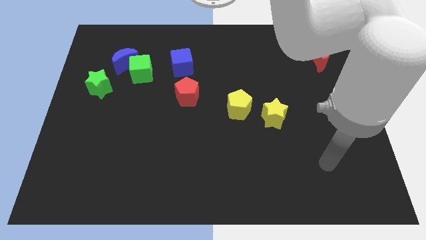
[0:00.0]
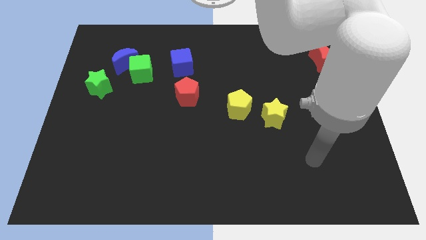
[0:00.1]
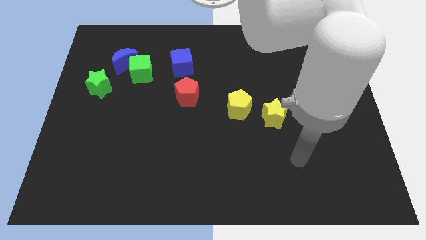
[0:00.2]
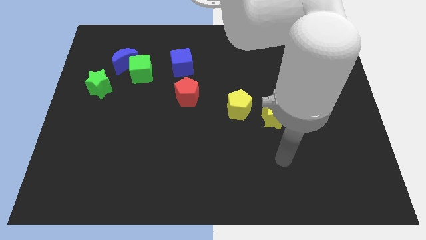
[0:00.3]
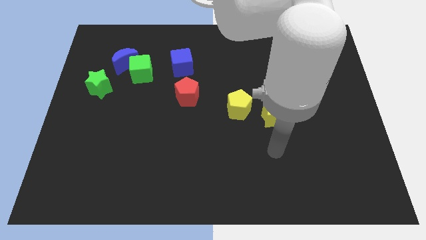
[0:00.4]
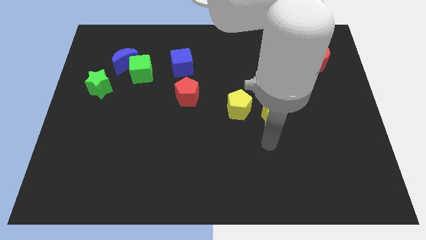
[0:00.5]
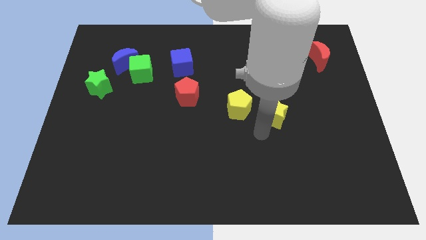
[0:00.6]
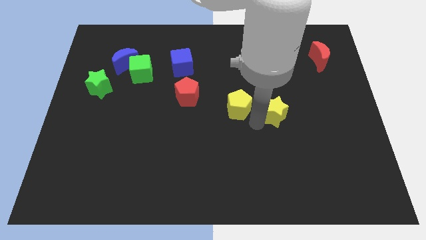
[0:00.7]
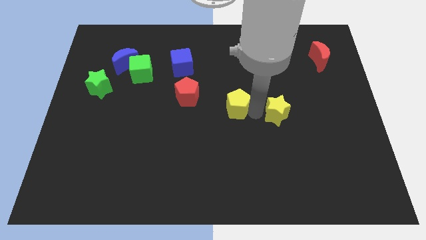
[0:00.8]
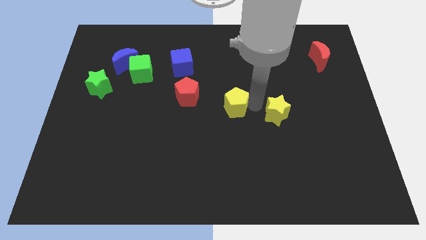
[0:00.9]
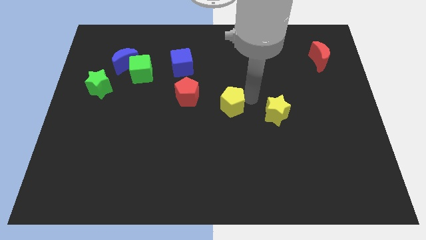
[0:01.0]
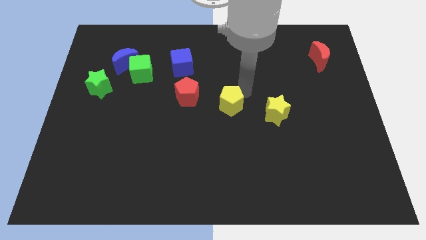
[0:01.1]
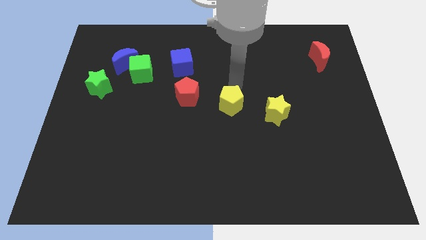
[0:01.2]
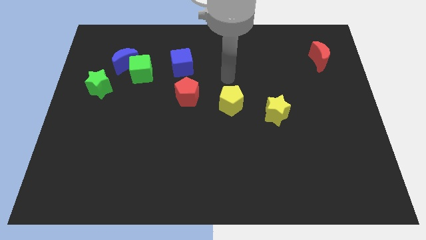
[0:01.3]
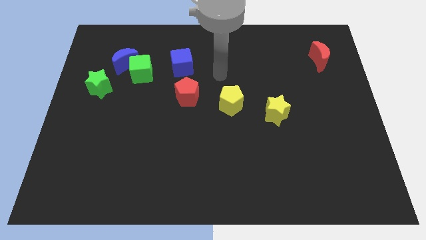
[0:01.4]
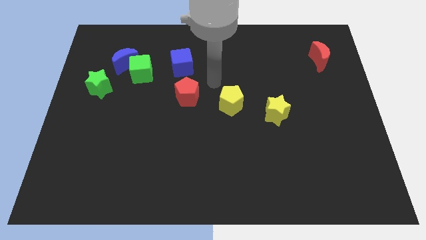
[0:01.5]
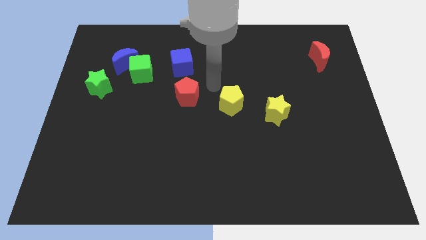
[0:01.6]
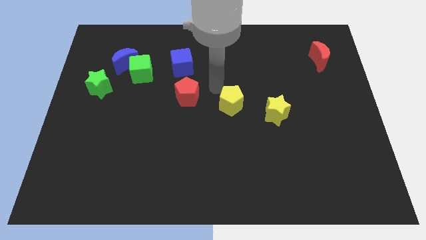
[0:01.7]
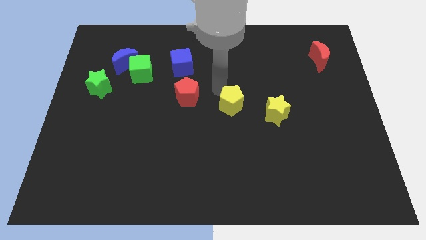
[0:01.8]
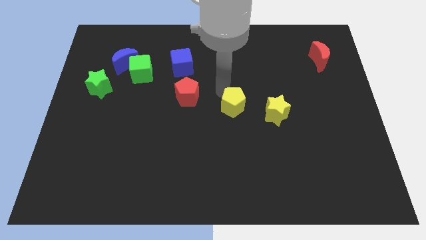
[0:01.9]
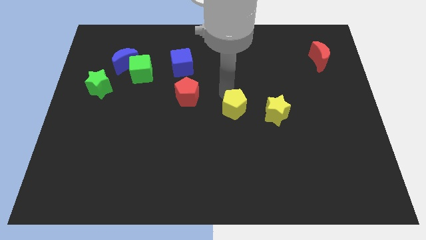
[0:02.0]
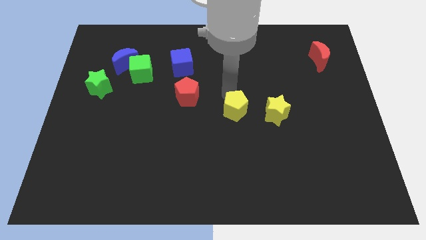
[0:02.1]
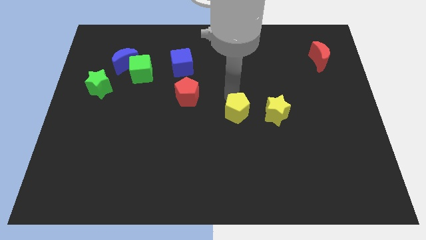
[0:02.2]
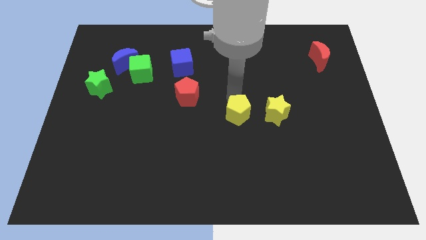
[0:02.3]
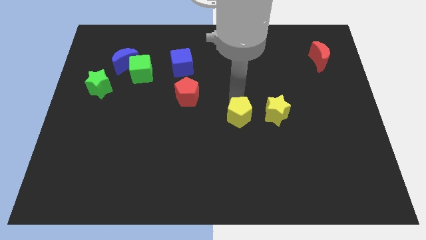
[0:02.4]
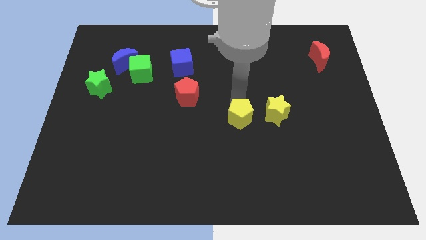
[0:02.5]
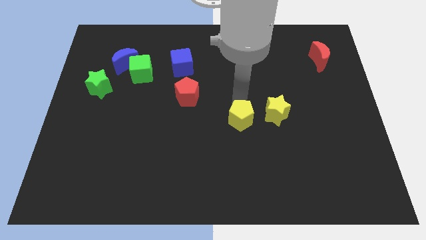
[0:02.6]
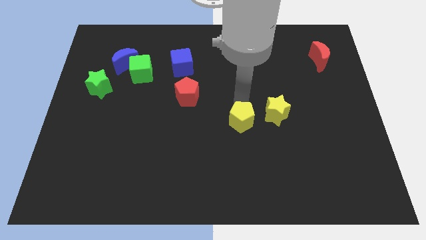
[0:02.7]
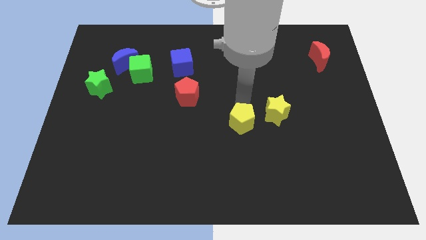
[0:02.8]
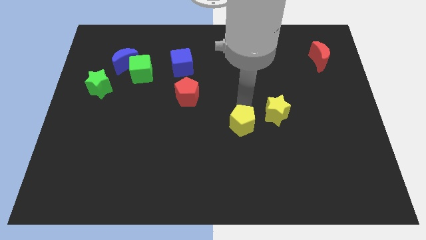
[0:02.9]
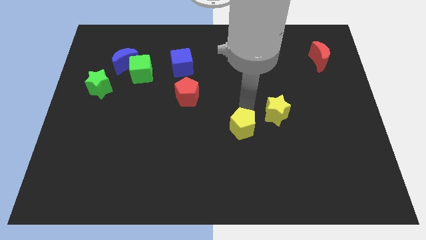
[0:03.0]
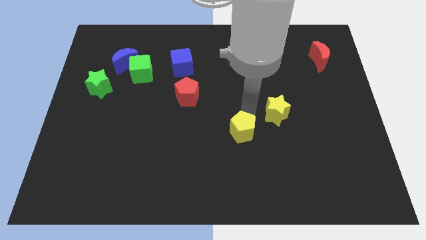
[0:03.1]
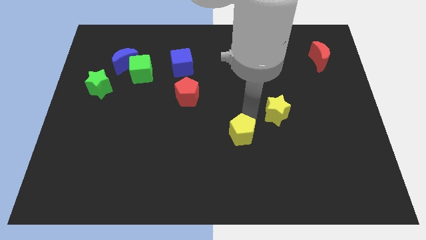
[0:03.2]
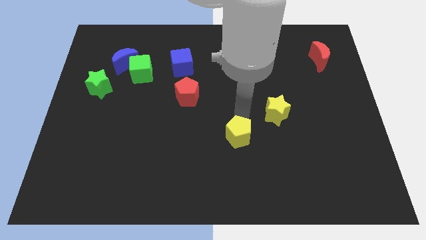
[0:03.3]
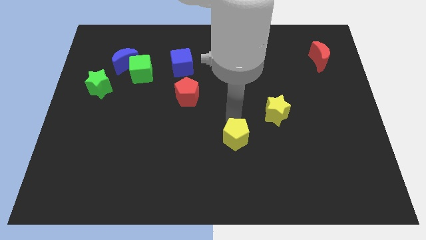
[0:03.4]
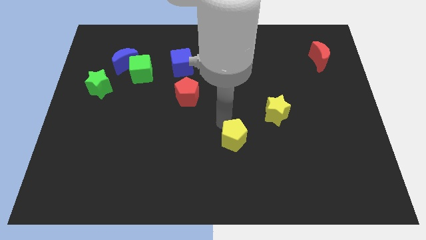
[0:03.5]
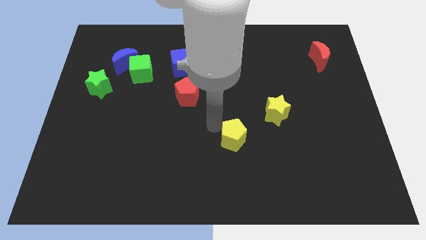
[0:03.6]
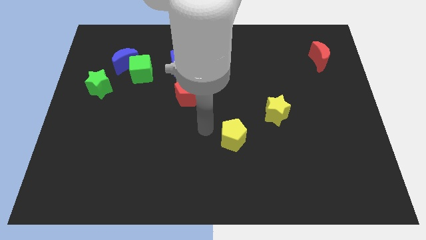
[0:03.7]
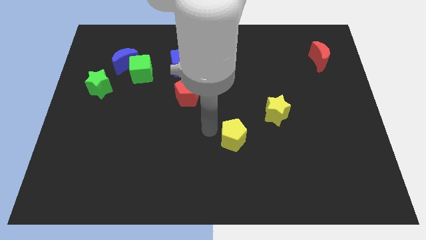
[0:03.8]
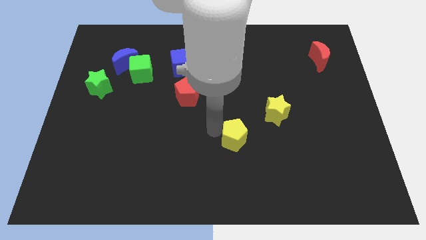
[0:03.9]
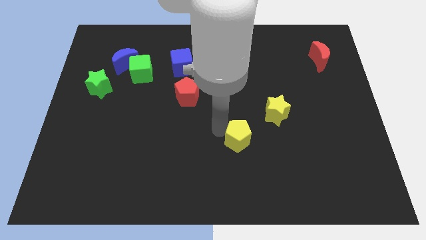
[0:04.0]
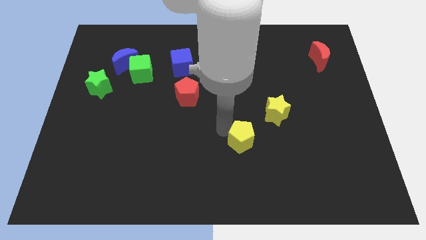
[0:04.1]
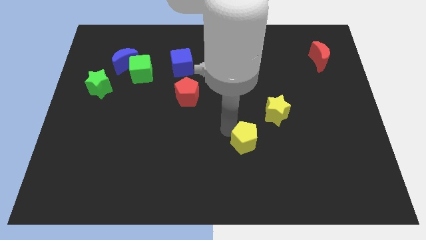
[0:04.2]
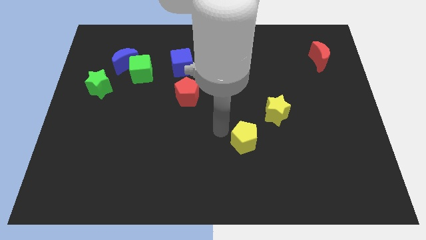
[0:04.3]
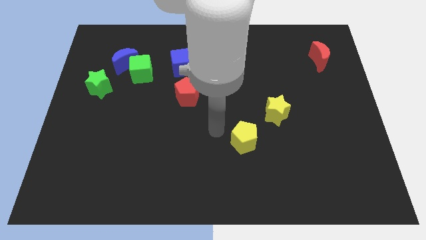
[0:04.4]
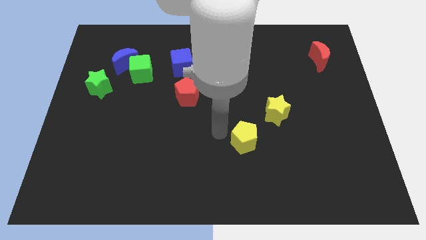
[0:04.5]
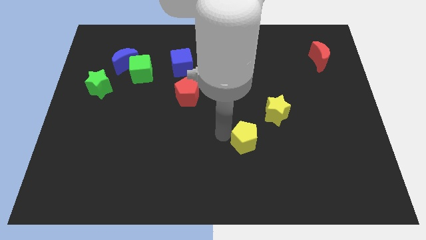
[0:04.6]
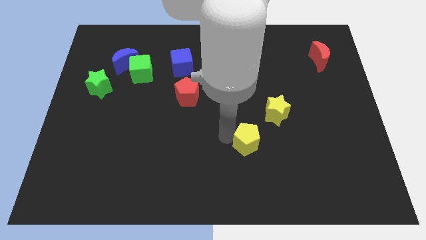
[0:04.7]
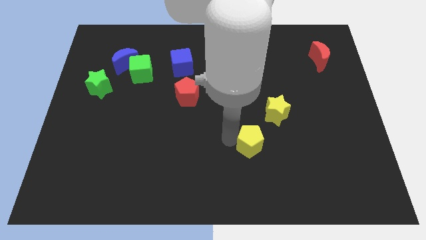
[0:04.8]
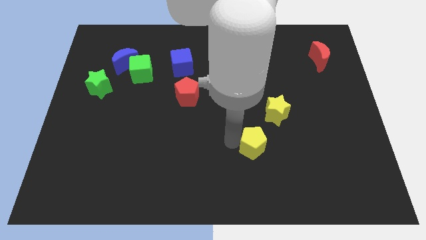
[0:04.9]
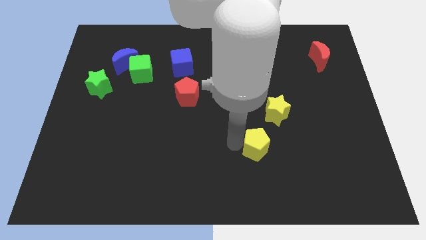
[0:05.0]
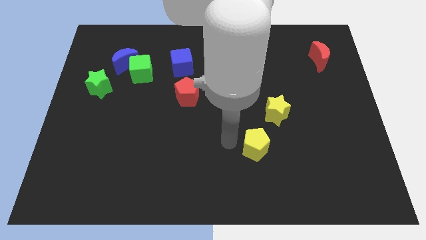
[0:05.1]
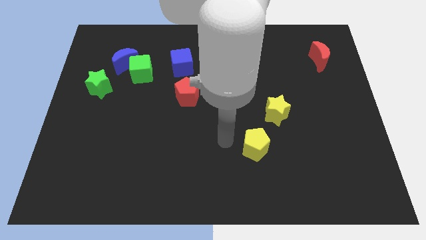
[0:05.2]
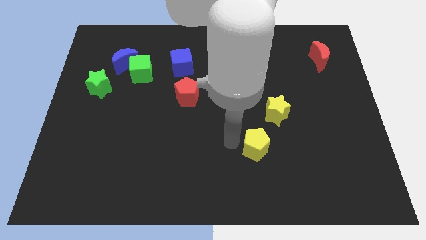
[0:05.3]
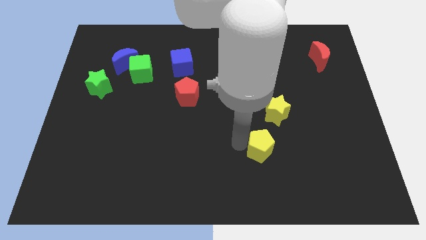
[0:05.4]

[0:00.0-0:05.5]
push the yellow pentagon below the yellow star

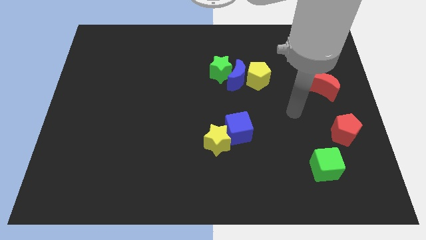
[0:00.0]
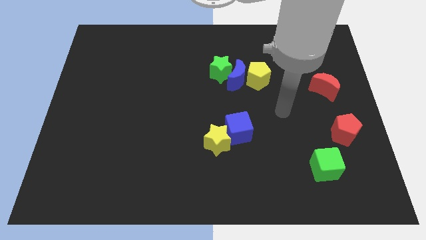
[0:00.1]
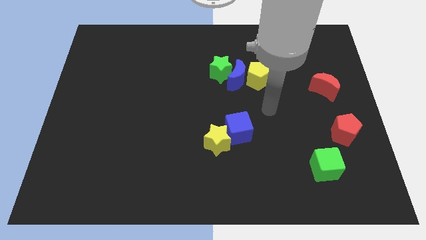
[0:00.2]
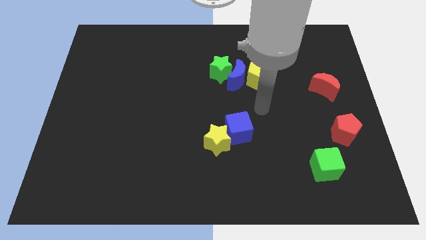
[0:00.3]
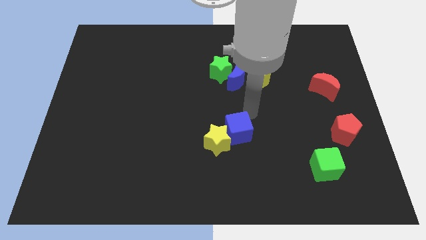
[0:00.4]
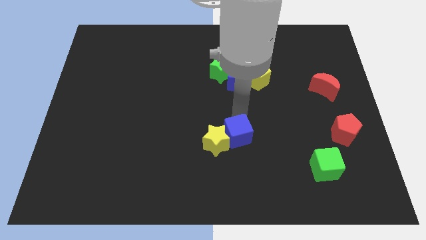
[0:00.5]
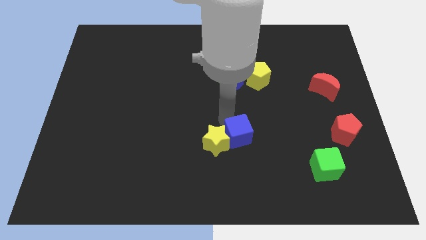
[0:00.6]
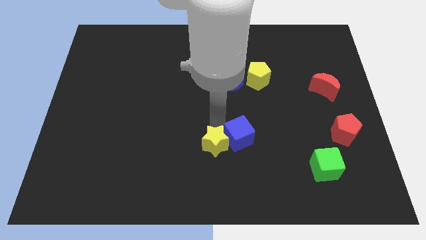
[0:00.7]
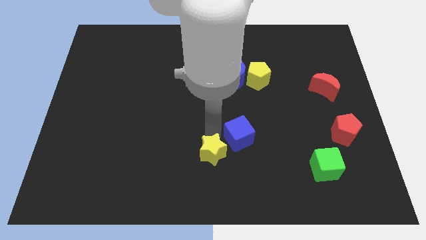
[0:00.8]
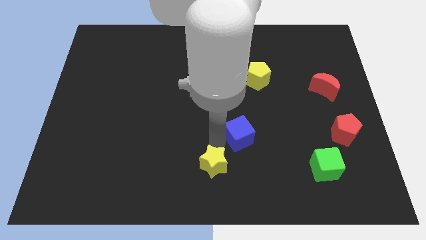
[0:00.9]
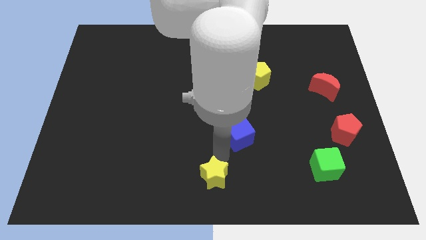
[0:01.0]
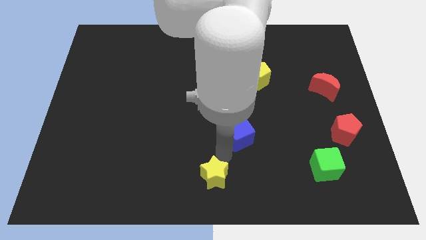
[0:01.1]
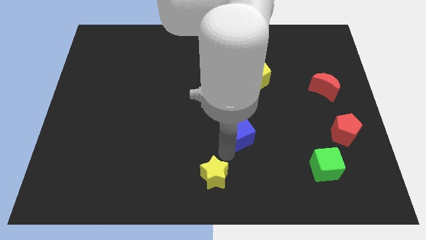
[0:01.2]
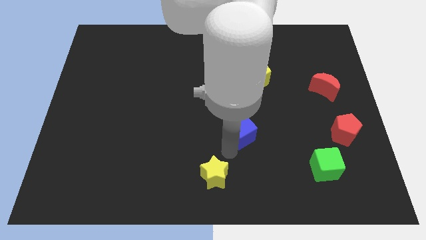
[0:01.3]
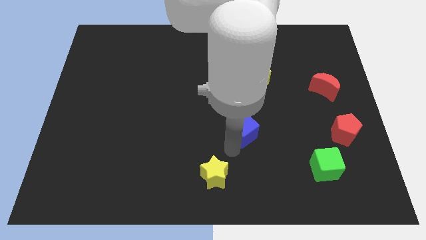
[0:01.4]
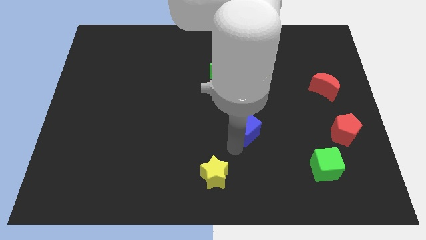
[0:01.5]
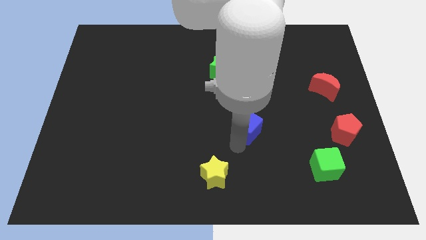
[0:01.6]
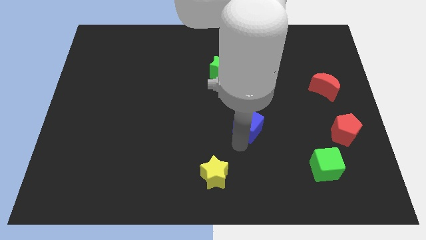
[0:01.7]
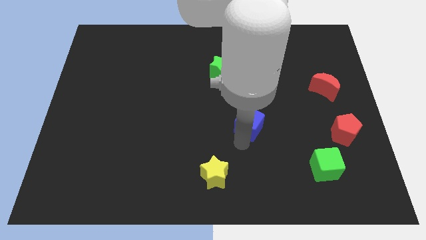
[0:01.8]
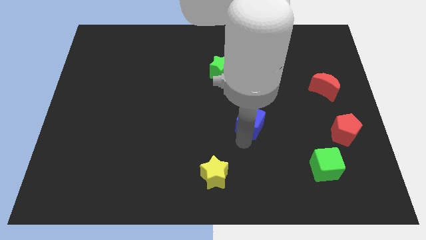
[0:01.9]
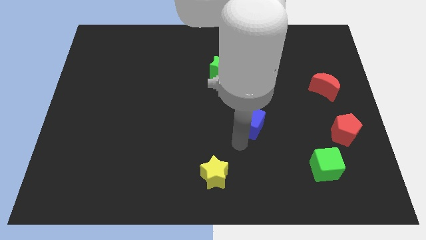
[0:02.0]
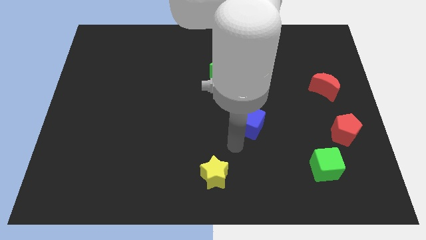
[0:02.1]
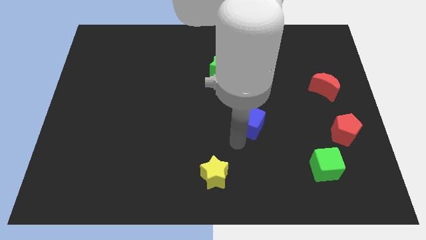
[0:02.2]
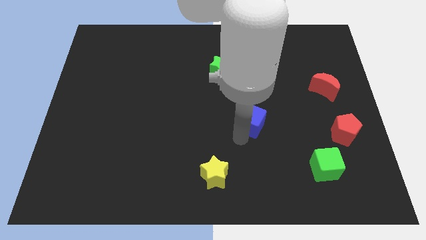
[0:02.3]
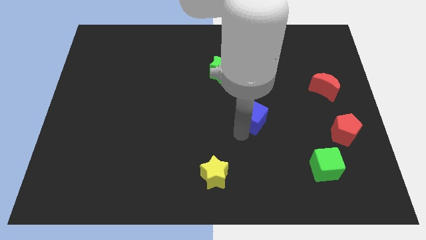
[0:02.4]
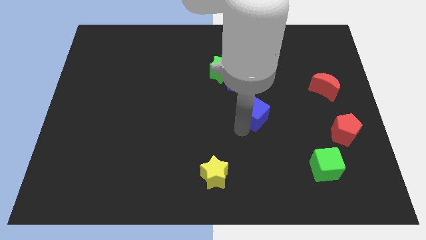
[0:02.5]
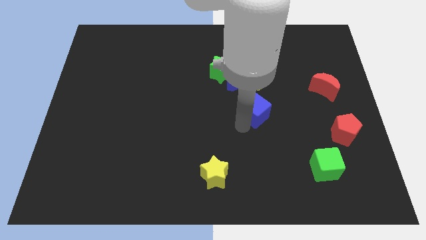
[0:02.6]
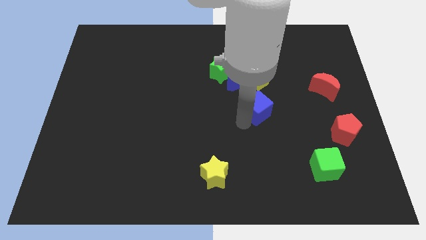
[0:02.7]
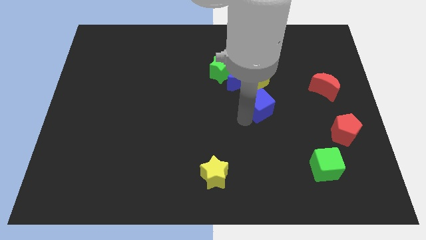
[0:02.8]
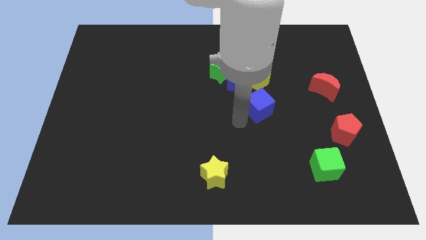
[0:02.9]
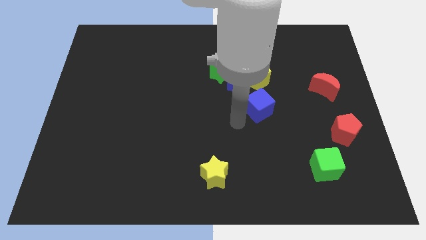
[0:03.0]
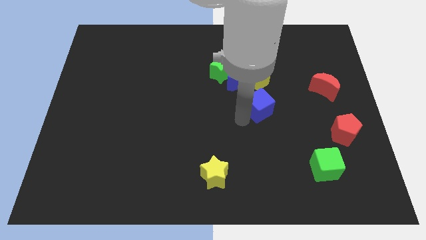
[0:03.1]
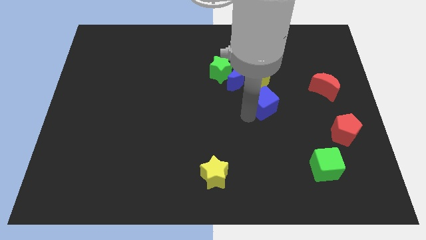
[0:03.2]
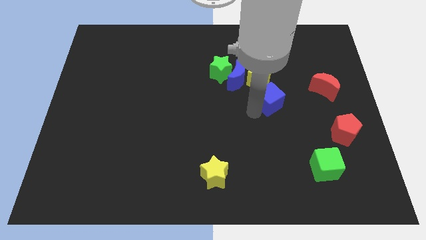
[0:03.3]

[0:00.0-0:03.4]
push the blue cube to the bottom right side of the yellow pentagon
